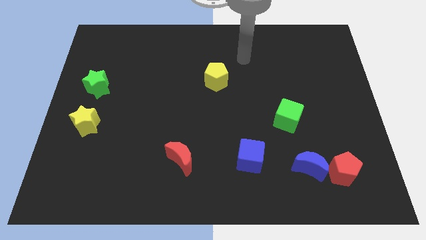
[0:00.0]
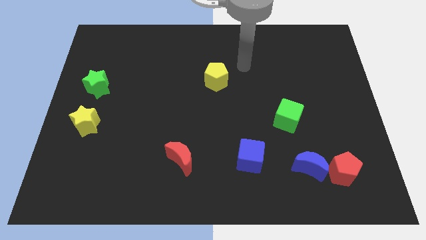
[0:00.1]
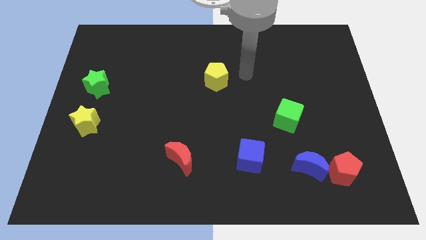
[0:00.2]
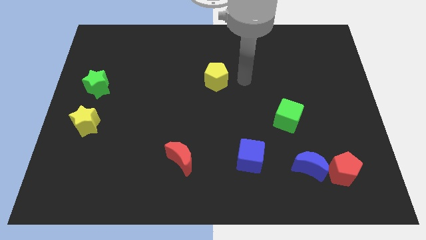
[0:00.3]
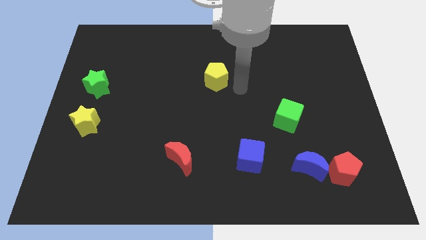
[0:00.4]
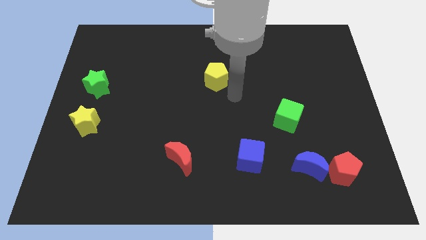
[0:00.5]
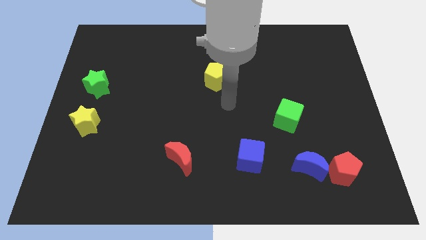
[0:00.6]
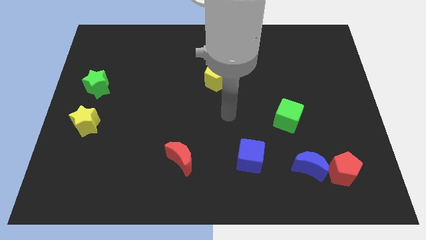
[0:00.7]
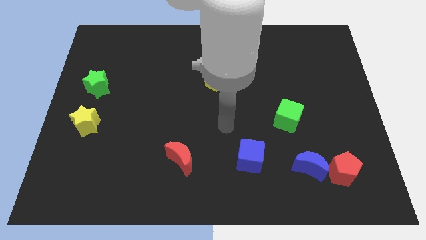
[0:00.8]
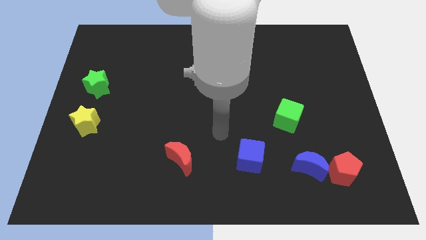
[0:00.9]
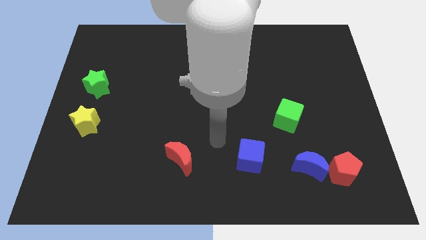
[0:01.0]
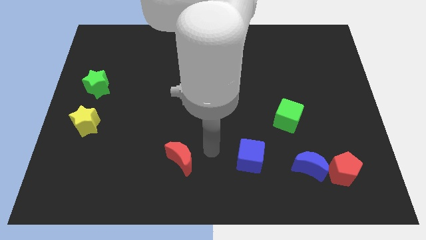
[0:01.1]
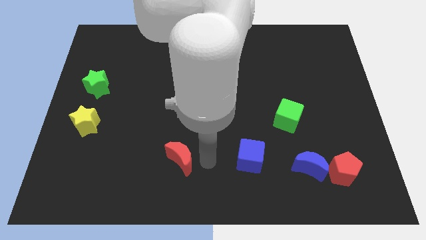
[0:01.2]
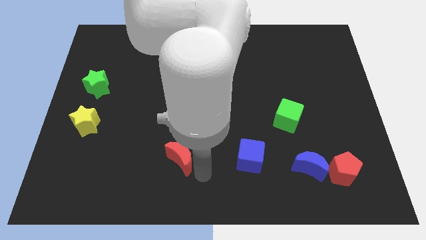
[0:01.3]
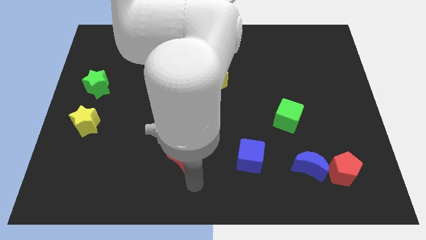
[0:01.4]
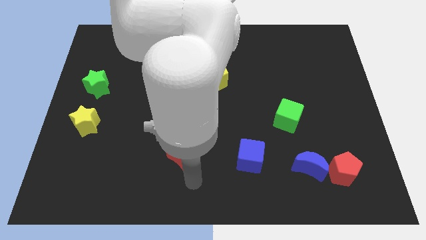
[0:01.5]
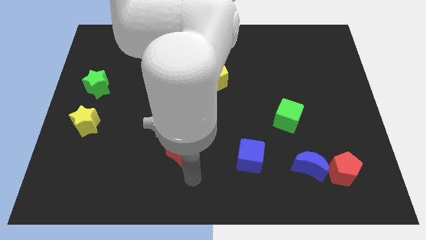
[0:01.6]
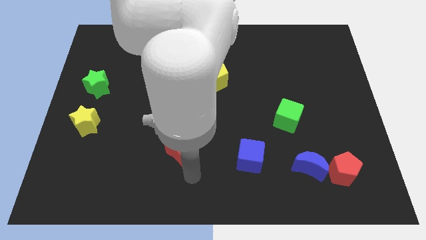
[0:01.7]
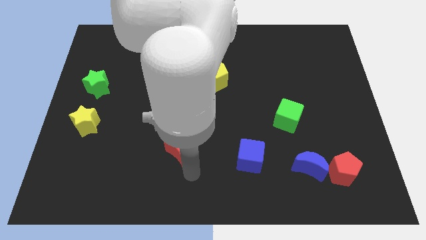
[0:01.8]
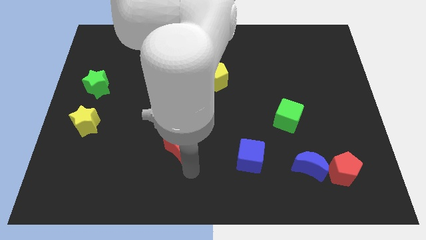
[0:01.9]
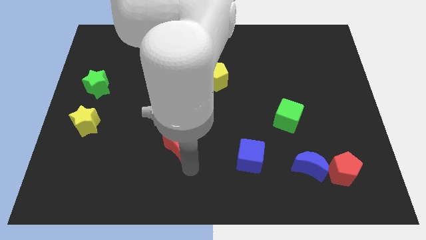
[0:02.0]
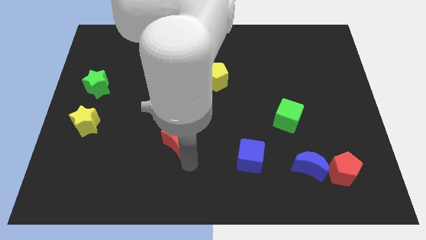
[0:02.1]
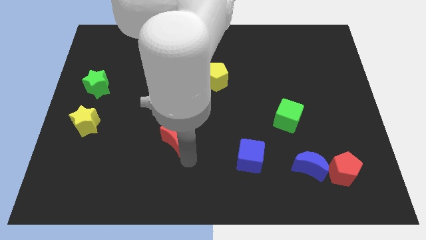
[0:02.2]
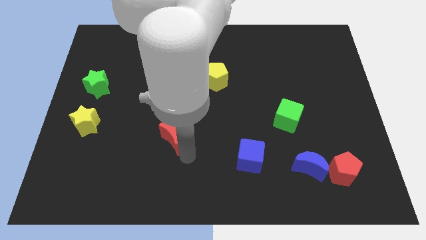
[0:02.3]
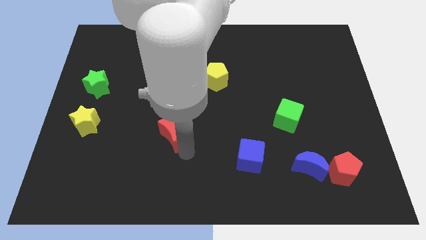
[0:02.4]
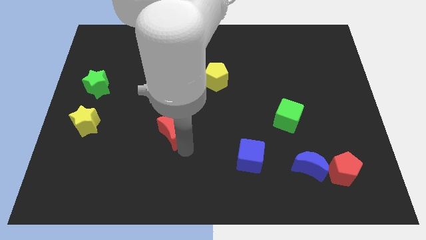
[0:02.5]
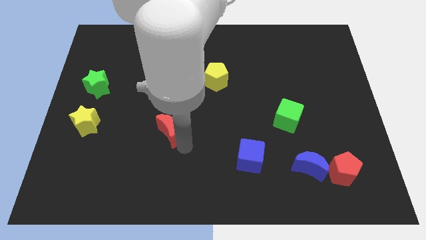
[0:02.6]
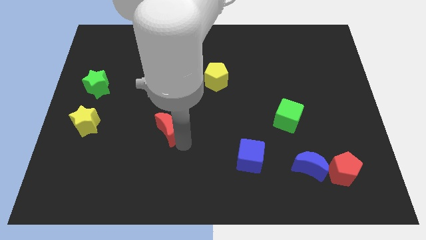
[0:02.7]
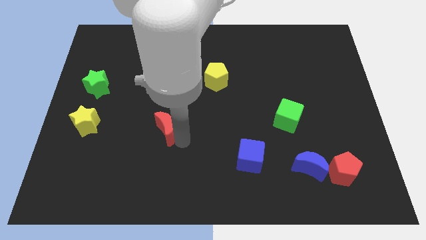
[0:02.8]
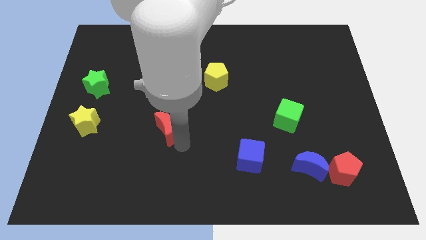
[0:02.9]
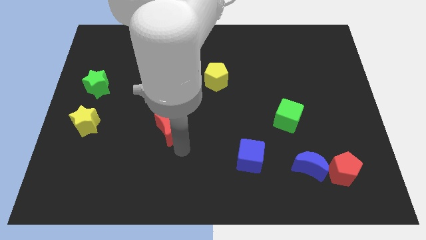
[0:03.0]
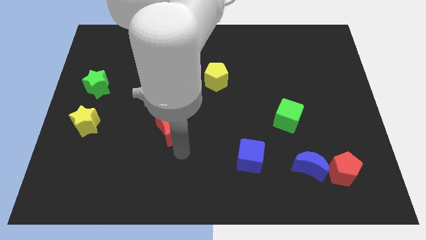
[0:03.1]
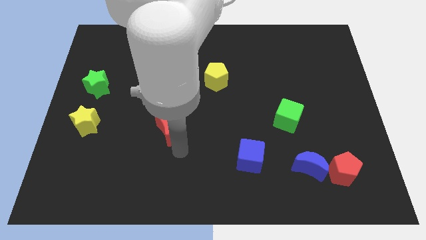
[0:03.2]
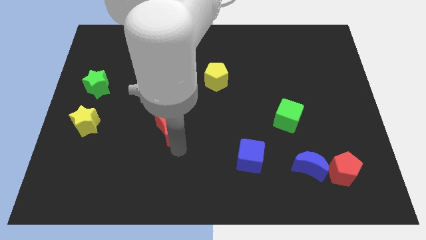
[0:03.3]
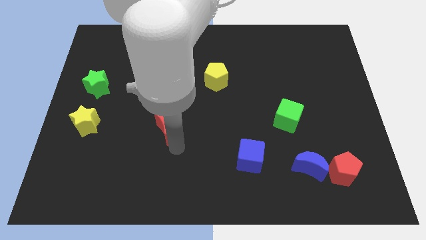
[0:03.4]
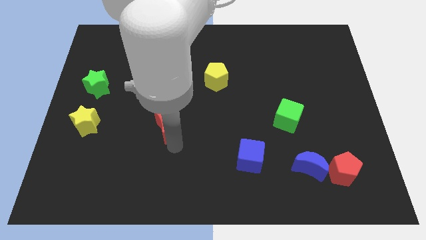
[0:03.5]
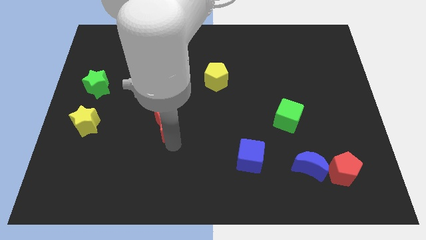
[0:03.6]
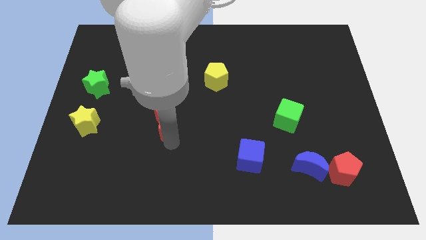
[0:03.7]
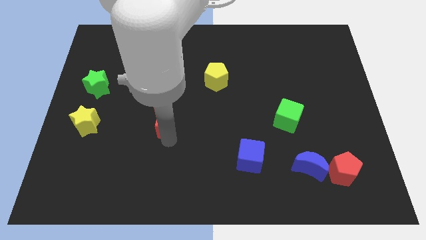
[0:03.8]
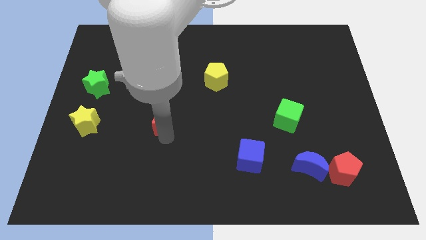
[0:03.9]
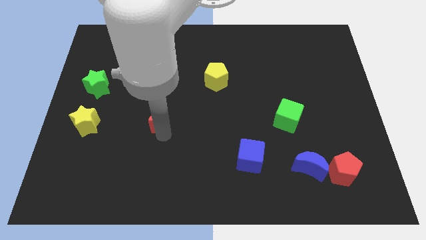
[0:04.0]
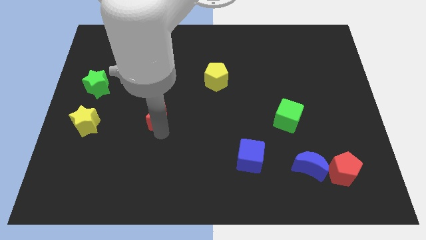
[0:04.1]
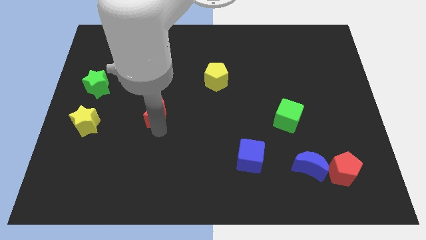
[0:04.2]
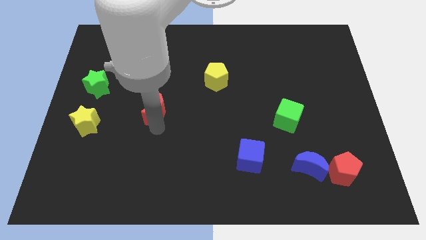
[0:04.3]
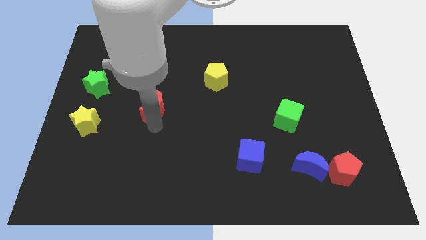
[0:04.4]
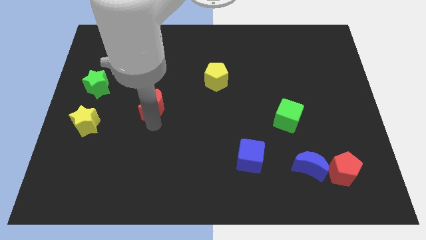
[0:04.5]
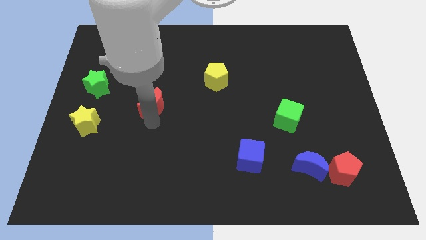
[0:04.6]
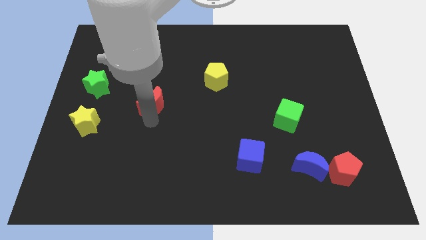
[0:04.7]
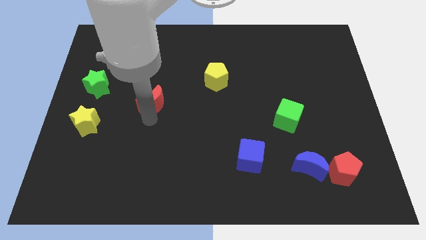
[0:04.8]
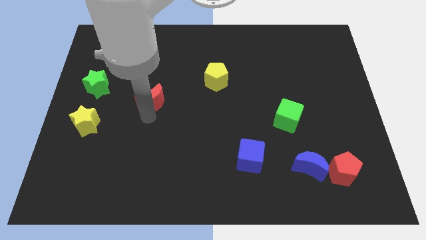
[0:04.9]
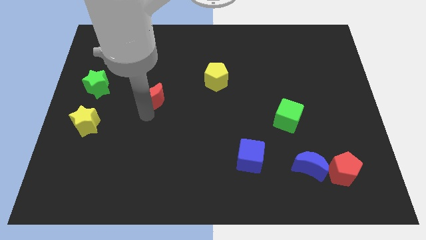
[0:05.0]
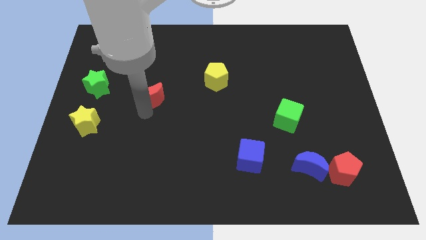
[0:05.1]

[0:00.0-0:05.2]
put the red moon right of the green star

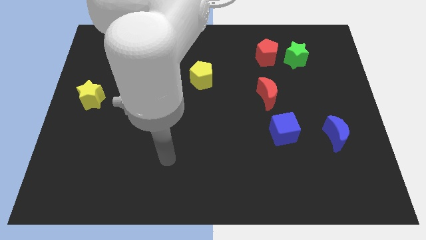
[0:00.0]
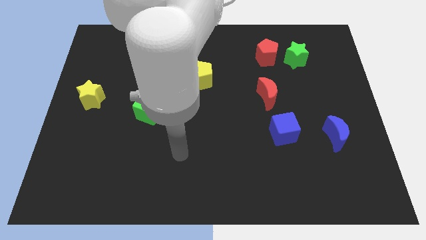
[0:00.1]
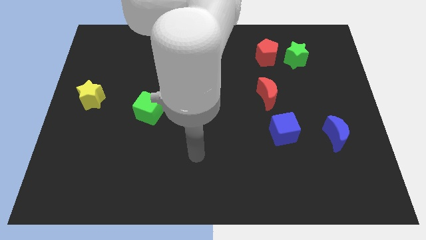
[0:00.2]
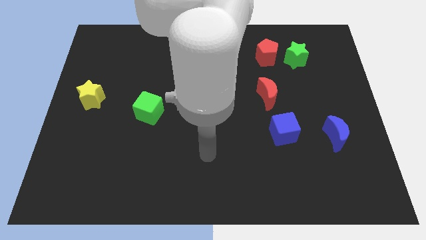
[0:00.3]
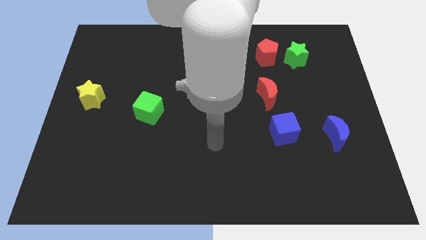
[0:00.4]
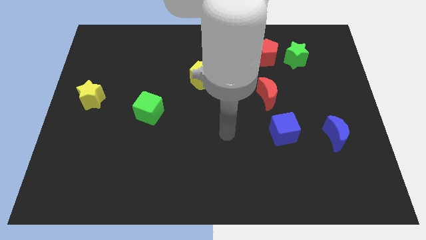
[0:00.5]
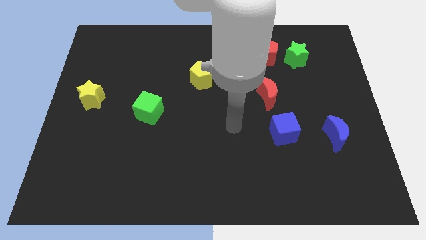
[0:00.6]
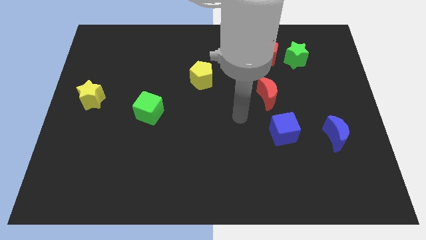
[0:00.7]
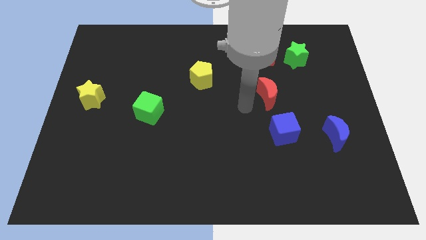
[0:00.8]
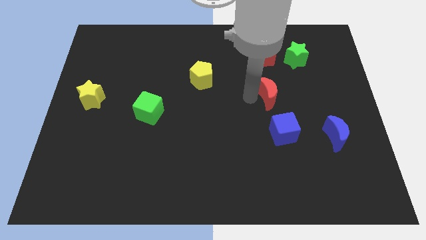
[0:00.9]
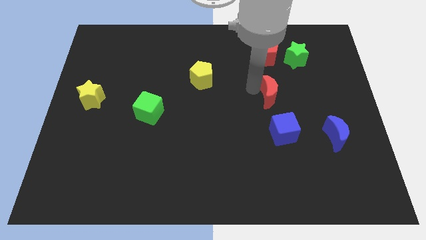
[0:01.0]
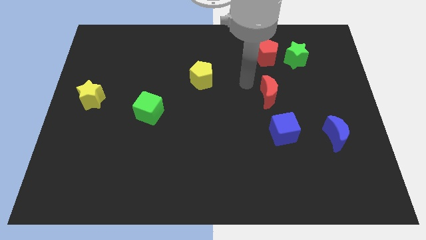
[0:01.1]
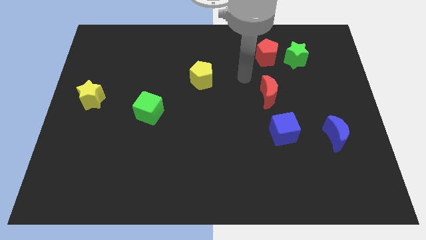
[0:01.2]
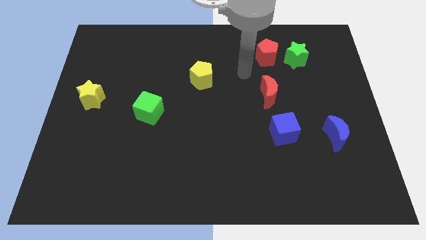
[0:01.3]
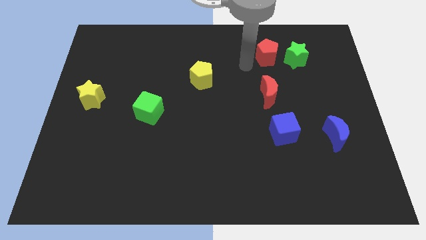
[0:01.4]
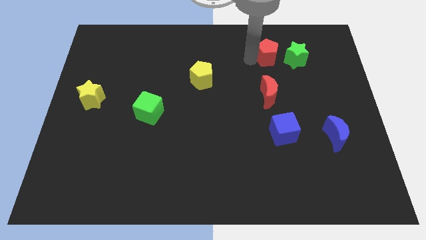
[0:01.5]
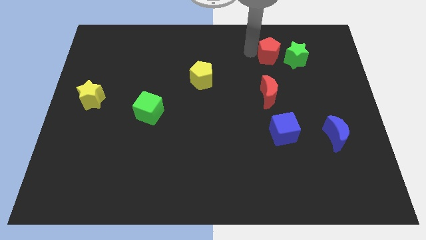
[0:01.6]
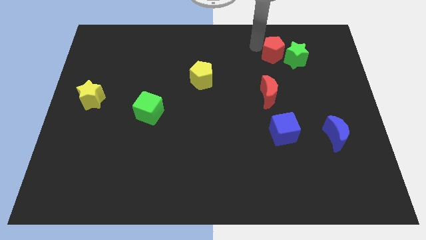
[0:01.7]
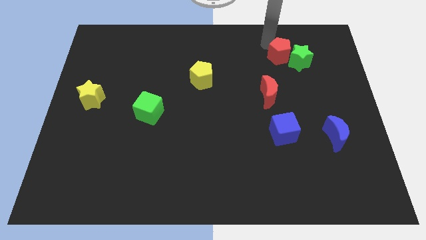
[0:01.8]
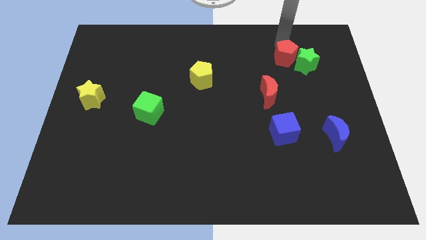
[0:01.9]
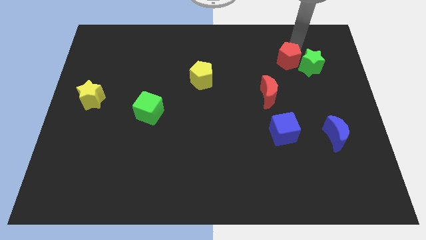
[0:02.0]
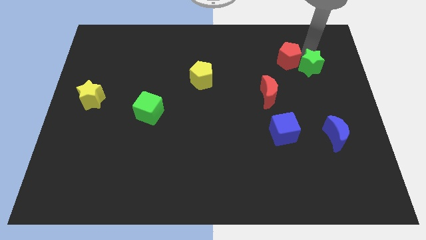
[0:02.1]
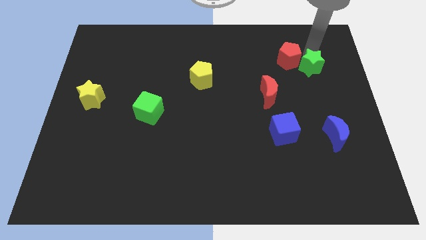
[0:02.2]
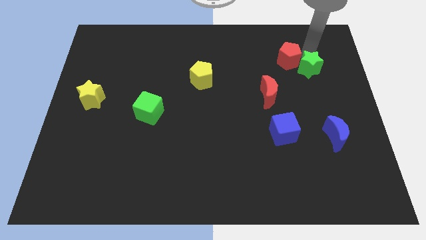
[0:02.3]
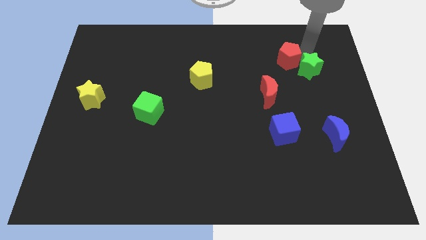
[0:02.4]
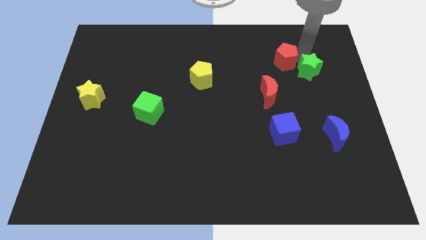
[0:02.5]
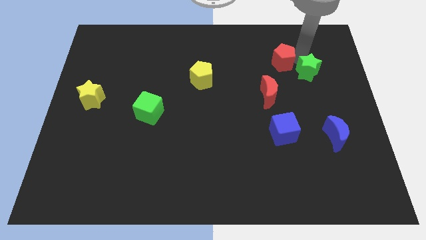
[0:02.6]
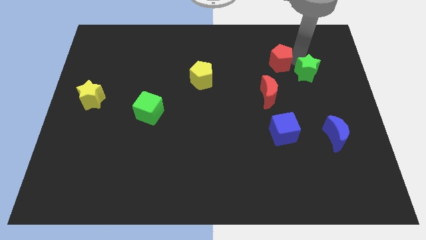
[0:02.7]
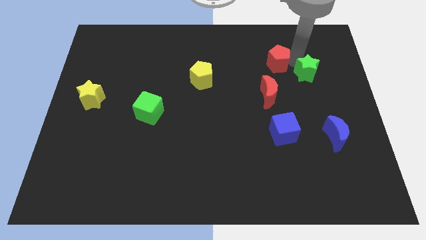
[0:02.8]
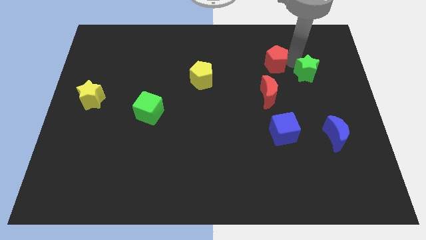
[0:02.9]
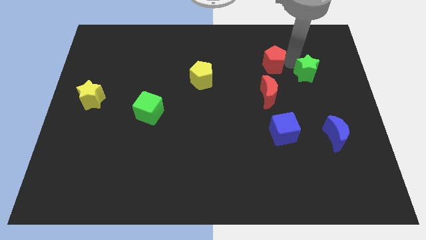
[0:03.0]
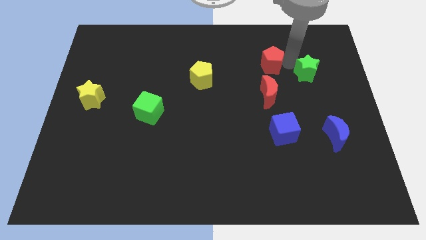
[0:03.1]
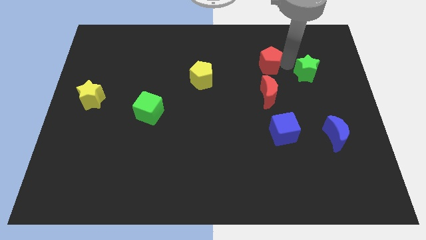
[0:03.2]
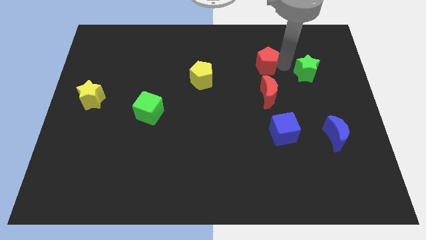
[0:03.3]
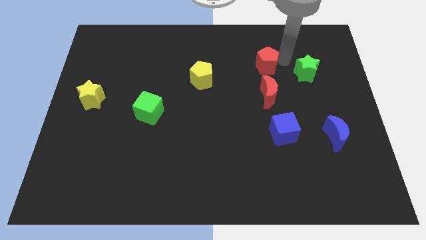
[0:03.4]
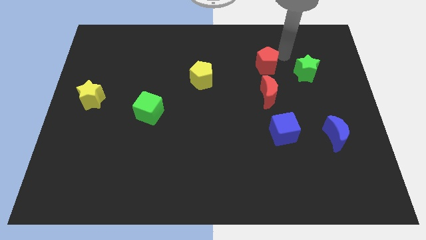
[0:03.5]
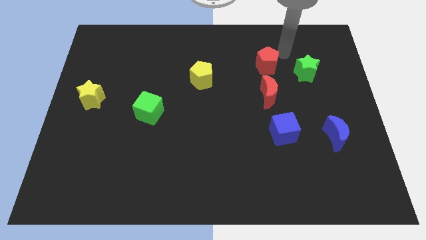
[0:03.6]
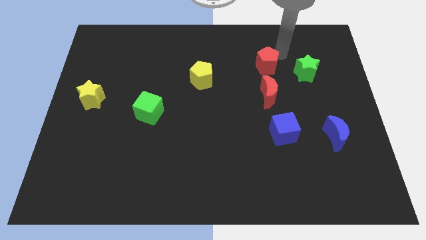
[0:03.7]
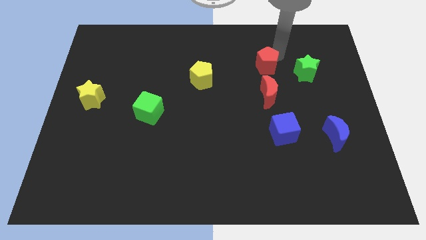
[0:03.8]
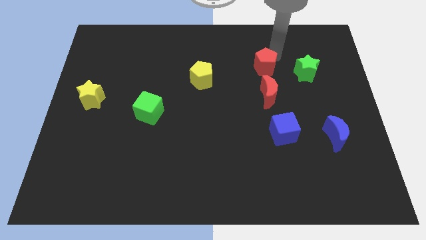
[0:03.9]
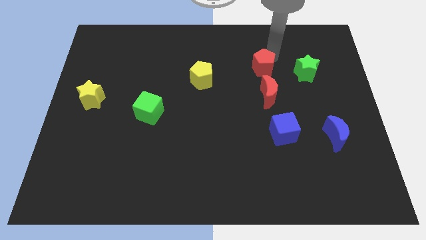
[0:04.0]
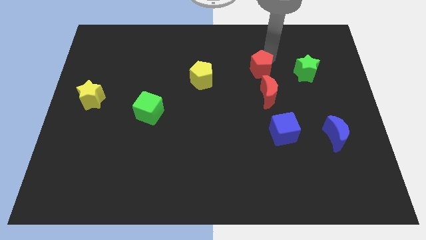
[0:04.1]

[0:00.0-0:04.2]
push the red pentagon to the right side of the yellow pentagon
